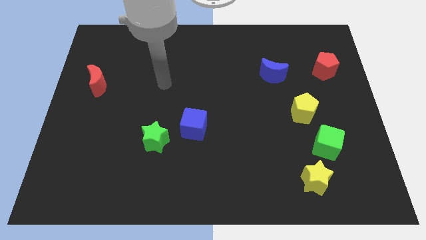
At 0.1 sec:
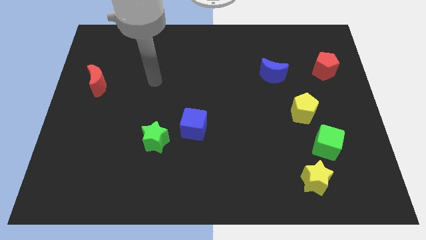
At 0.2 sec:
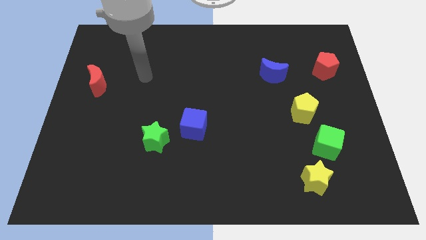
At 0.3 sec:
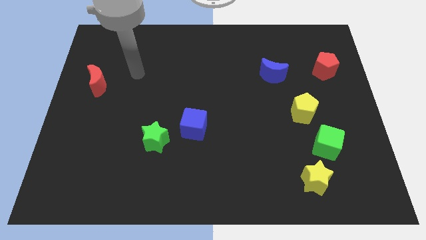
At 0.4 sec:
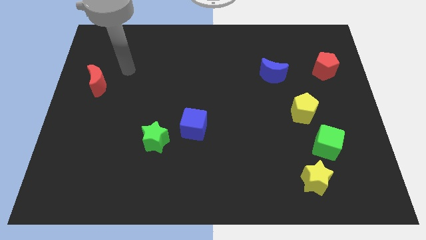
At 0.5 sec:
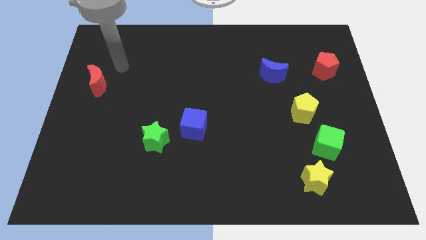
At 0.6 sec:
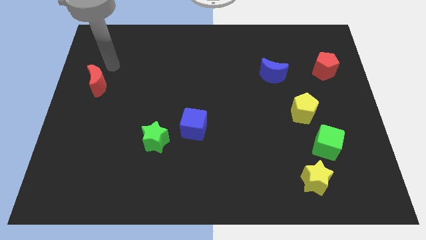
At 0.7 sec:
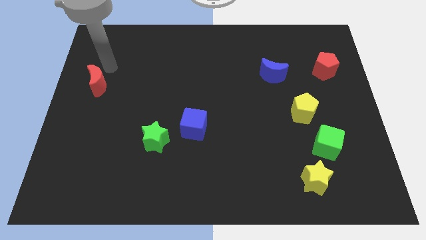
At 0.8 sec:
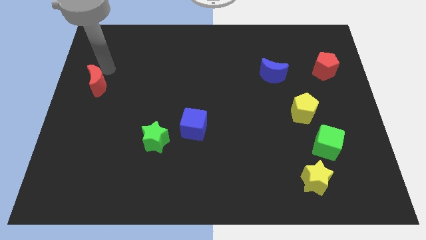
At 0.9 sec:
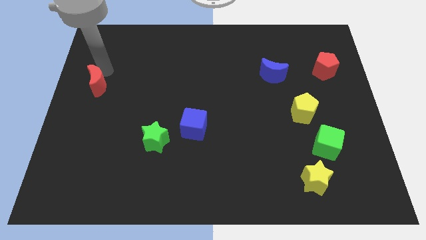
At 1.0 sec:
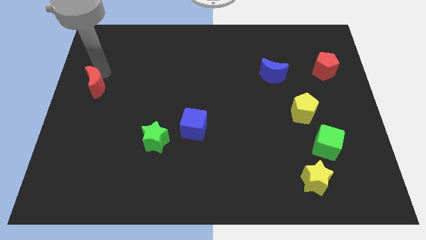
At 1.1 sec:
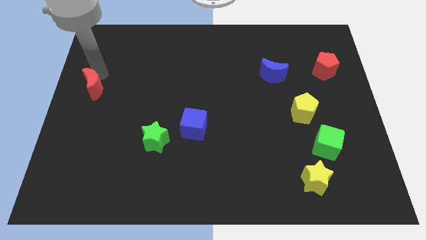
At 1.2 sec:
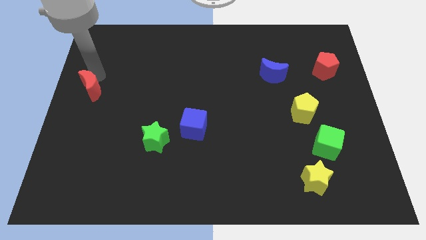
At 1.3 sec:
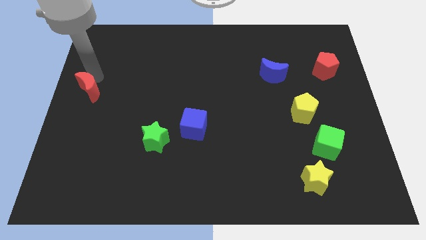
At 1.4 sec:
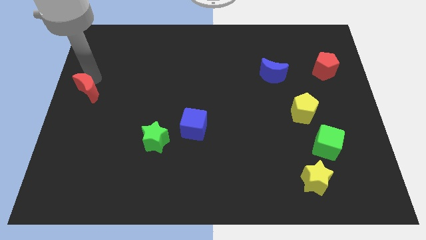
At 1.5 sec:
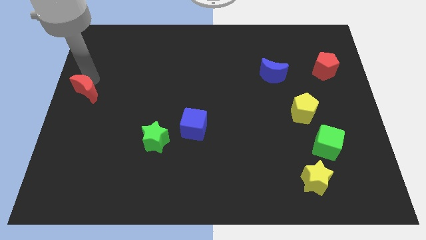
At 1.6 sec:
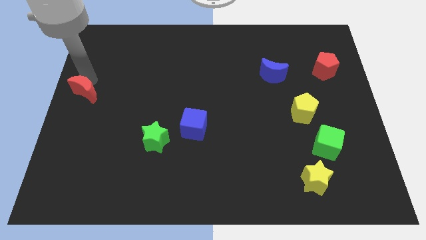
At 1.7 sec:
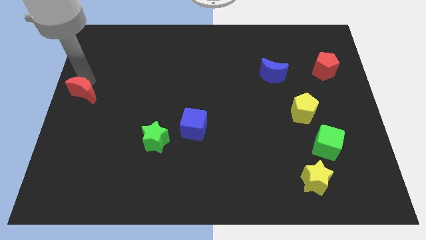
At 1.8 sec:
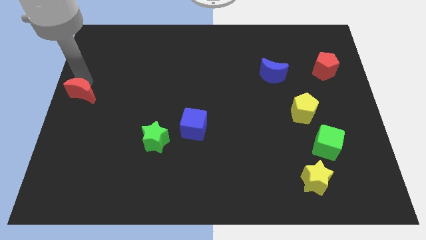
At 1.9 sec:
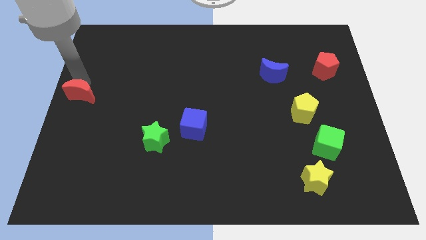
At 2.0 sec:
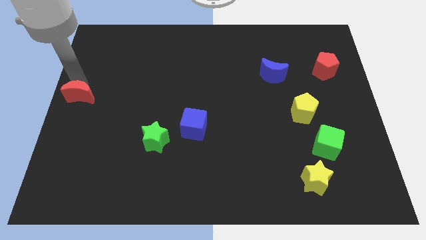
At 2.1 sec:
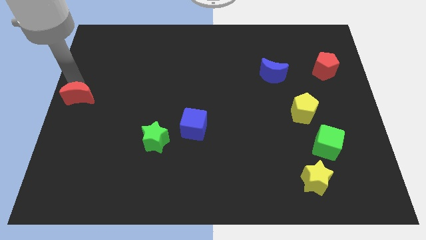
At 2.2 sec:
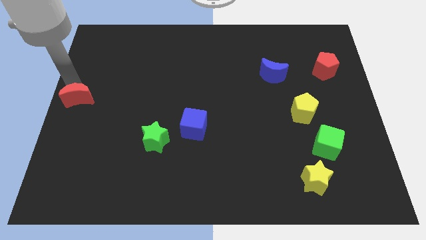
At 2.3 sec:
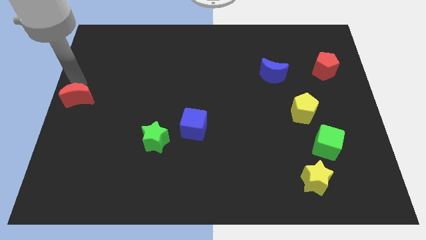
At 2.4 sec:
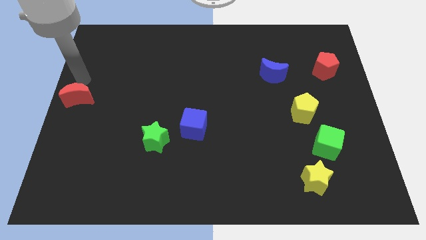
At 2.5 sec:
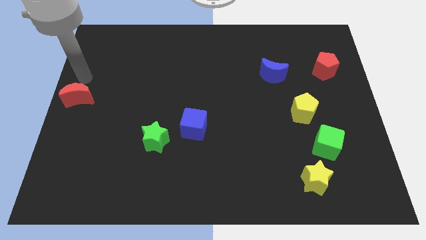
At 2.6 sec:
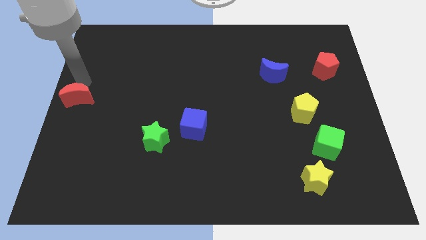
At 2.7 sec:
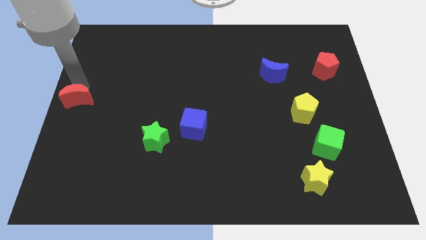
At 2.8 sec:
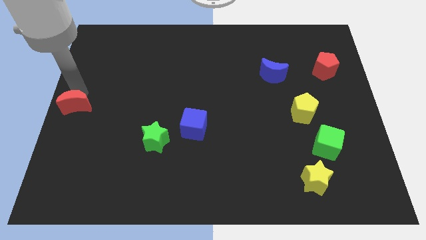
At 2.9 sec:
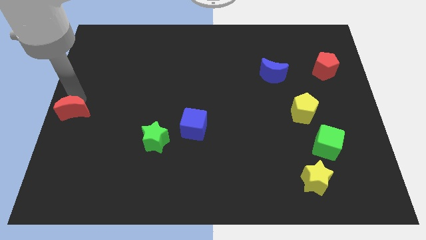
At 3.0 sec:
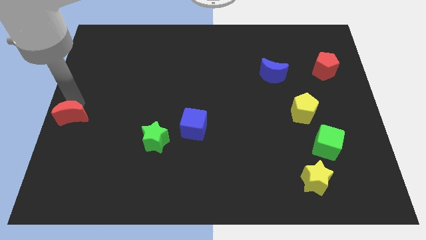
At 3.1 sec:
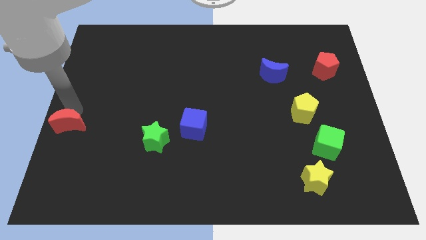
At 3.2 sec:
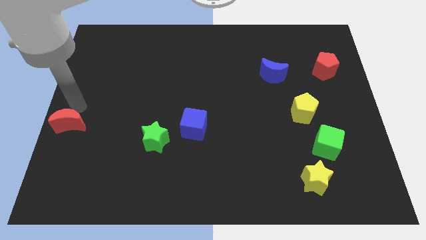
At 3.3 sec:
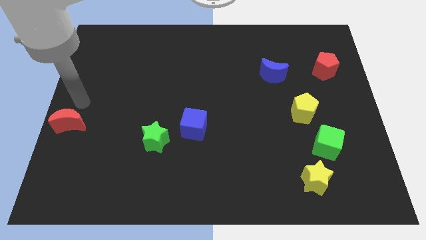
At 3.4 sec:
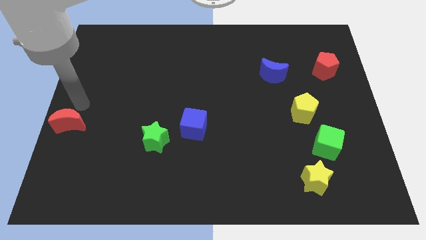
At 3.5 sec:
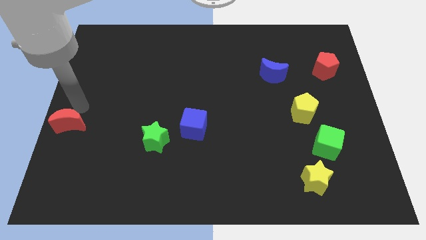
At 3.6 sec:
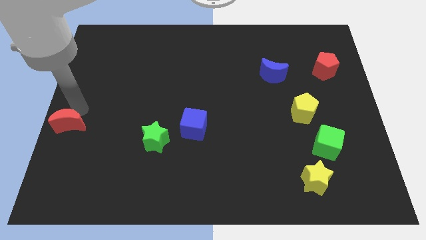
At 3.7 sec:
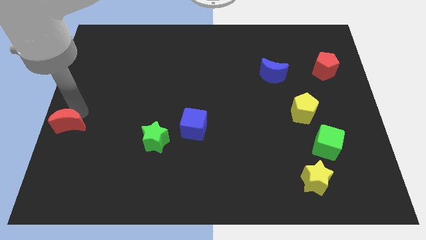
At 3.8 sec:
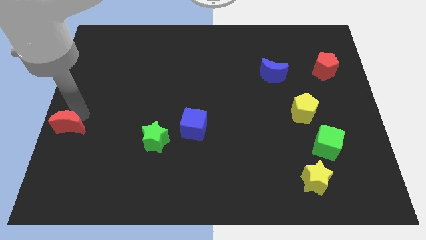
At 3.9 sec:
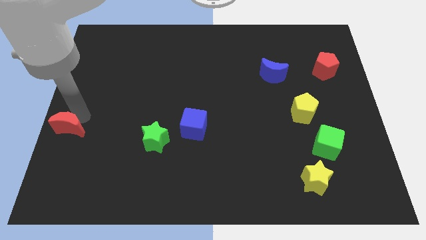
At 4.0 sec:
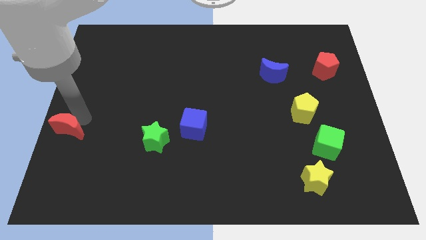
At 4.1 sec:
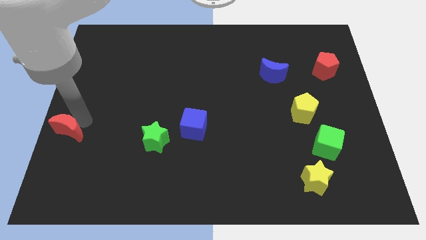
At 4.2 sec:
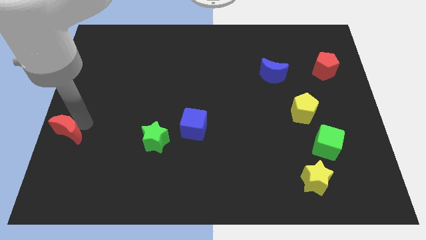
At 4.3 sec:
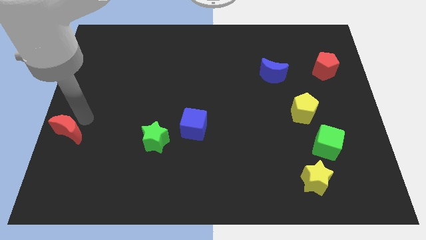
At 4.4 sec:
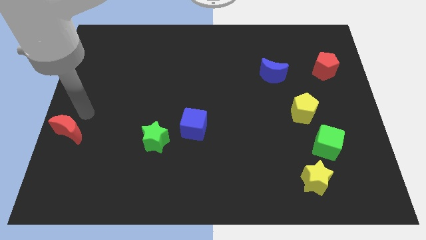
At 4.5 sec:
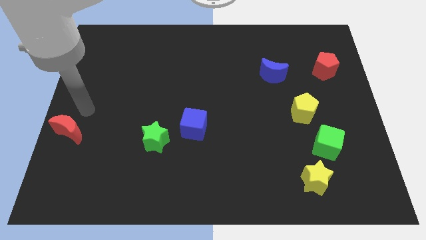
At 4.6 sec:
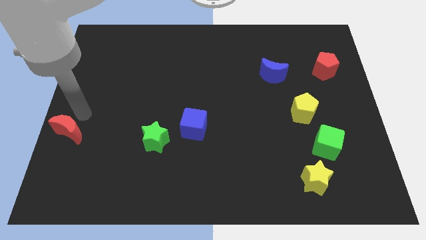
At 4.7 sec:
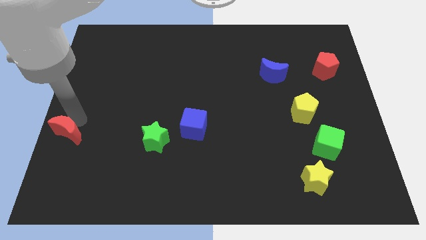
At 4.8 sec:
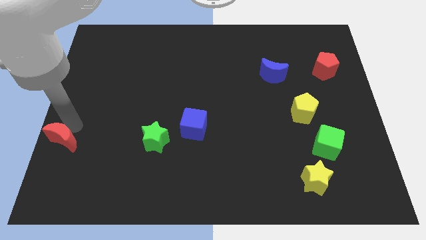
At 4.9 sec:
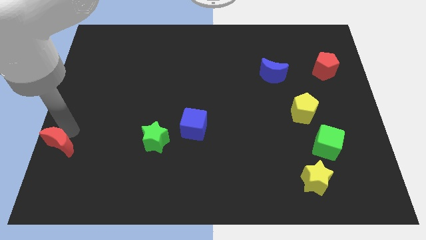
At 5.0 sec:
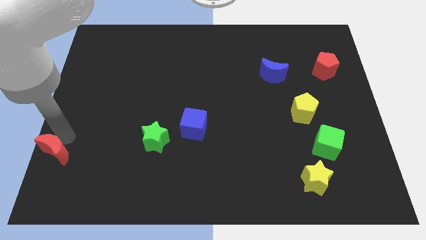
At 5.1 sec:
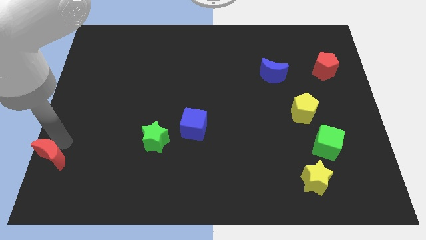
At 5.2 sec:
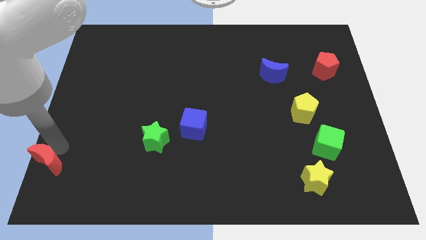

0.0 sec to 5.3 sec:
slide the red moon to the bottom left corner

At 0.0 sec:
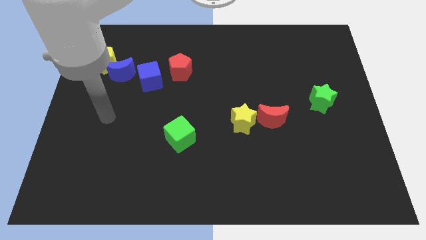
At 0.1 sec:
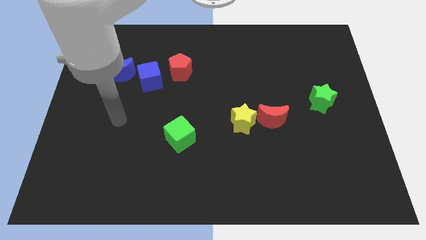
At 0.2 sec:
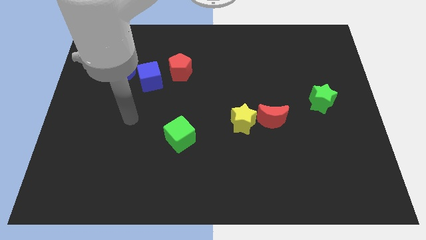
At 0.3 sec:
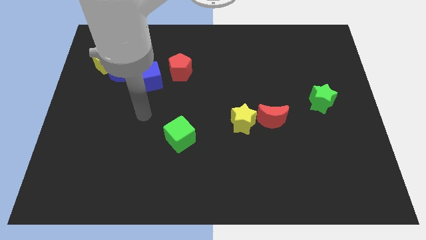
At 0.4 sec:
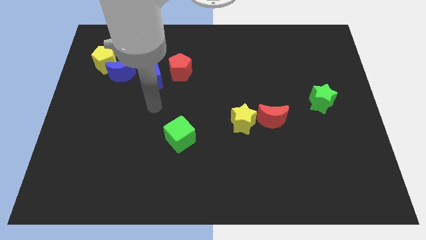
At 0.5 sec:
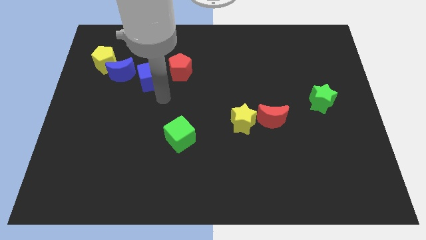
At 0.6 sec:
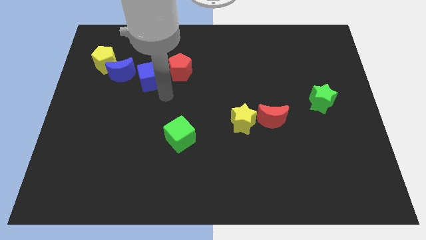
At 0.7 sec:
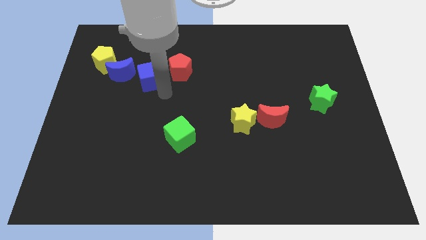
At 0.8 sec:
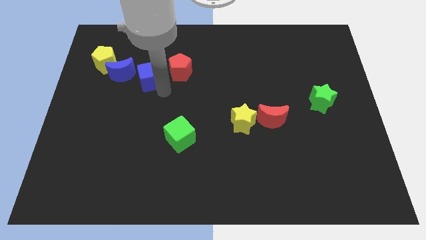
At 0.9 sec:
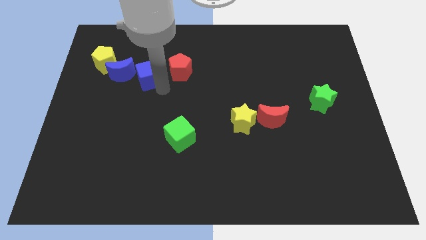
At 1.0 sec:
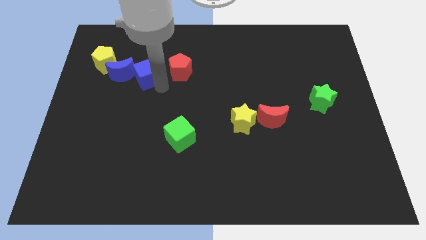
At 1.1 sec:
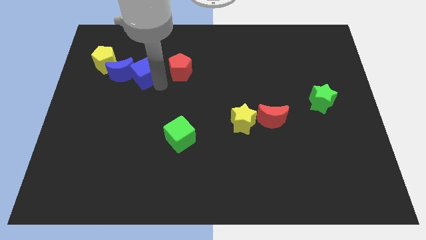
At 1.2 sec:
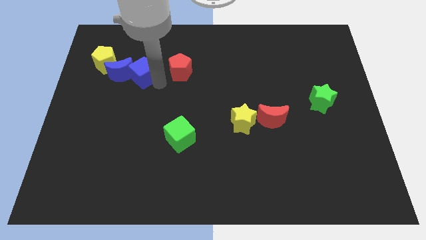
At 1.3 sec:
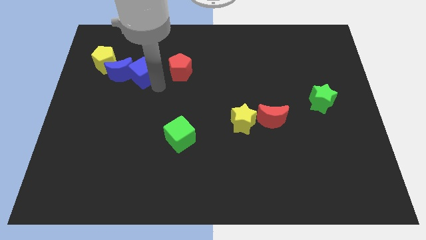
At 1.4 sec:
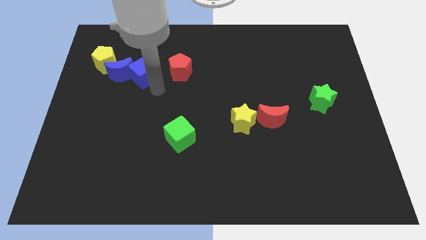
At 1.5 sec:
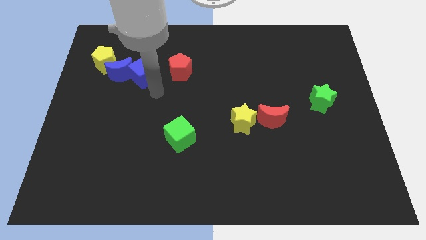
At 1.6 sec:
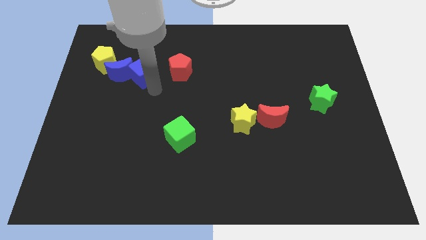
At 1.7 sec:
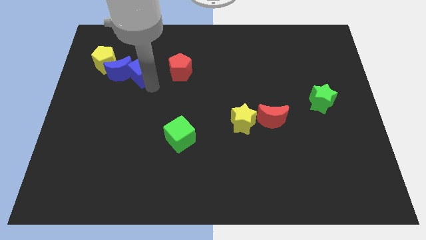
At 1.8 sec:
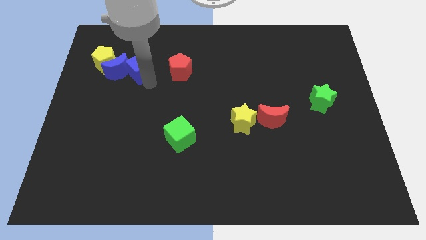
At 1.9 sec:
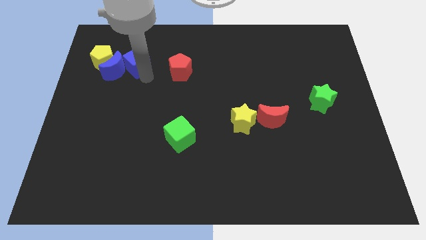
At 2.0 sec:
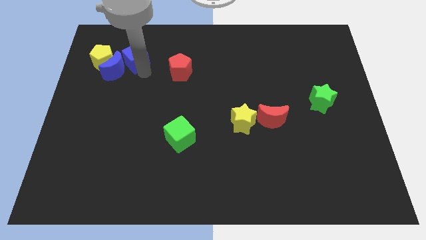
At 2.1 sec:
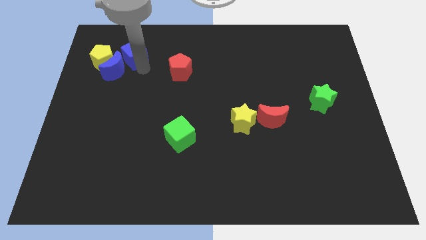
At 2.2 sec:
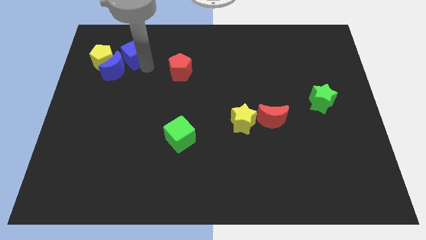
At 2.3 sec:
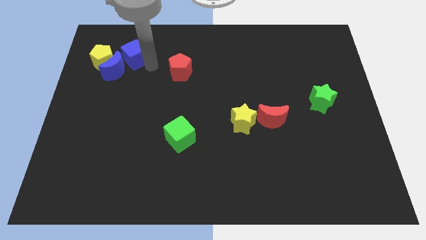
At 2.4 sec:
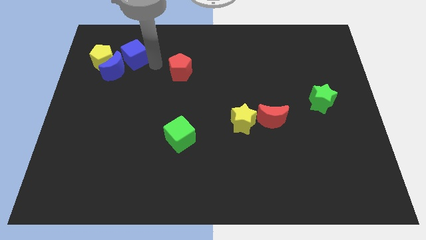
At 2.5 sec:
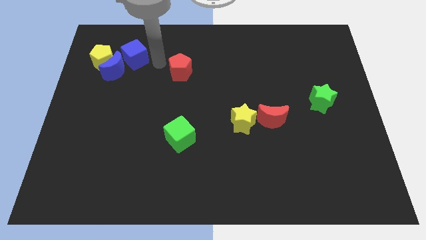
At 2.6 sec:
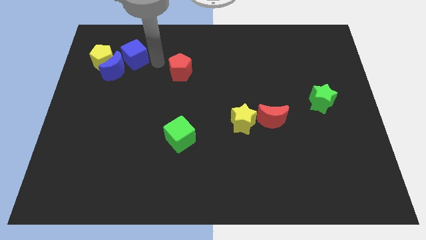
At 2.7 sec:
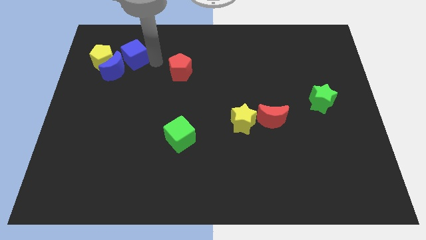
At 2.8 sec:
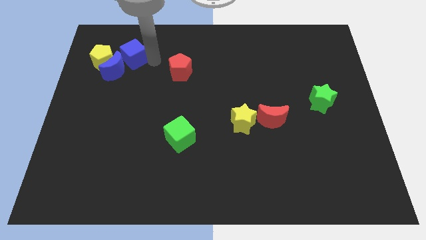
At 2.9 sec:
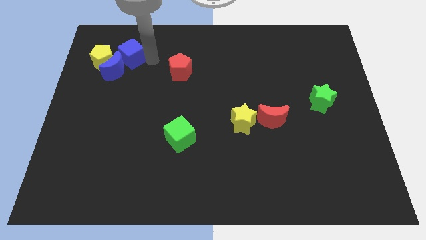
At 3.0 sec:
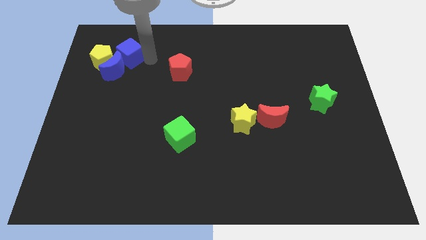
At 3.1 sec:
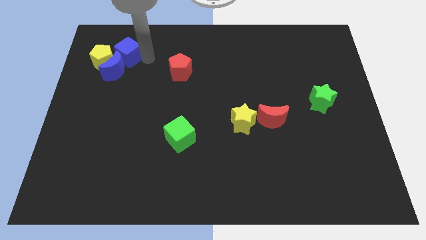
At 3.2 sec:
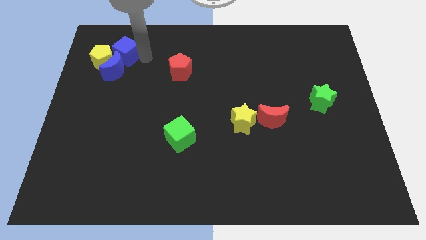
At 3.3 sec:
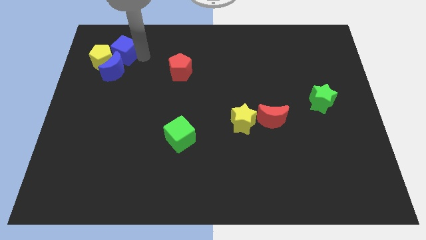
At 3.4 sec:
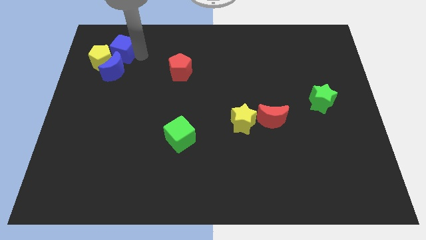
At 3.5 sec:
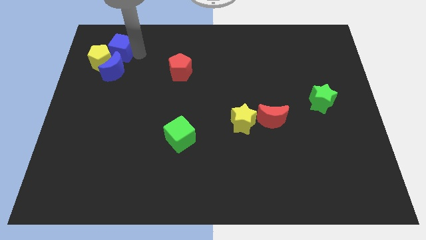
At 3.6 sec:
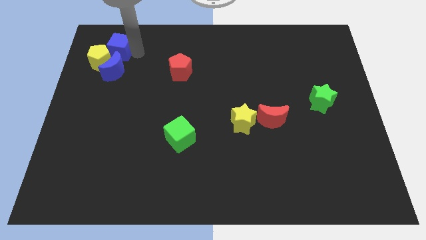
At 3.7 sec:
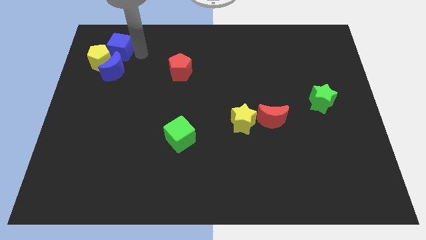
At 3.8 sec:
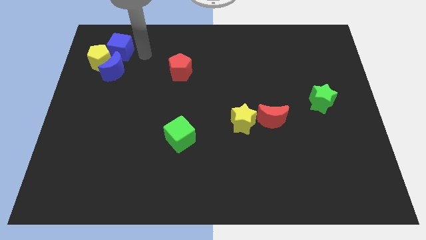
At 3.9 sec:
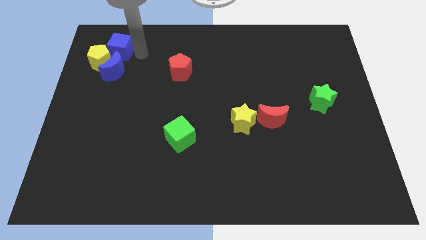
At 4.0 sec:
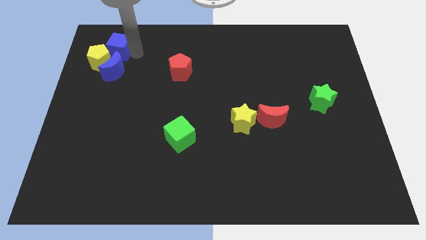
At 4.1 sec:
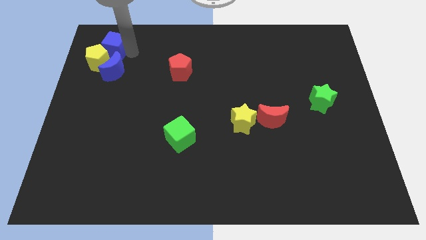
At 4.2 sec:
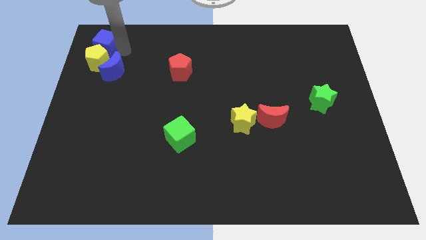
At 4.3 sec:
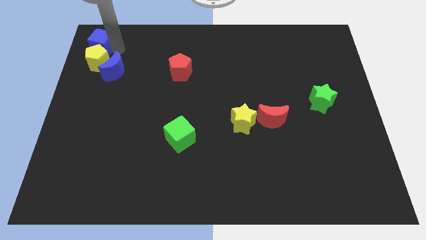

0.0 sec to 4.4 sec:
move the blue cube to the top left of the board
